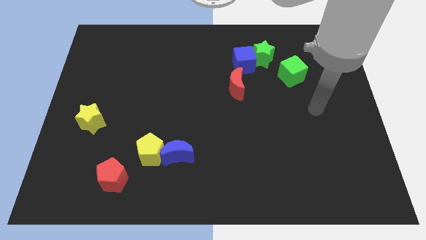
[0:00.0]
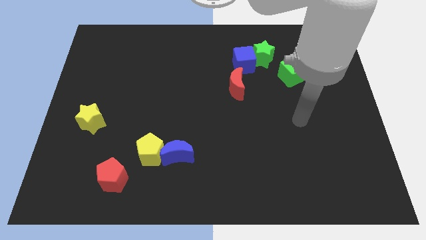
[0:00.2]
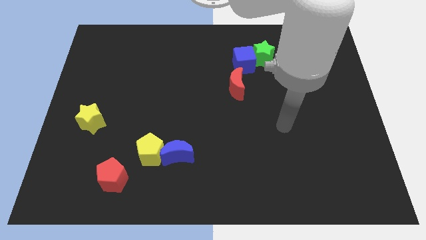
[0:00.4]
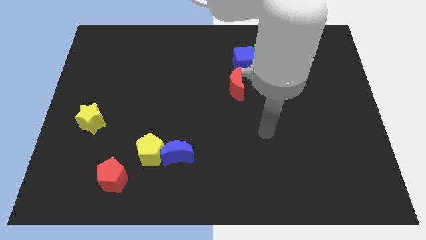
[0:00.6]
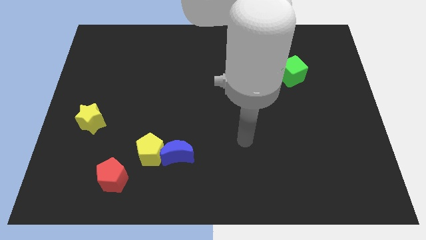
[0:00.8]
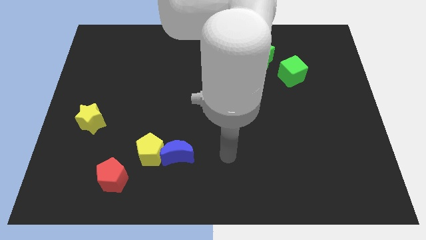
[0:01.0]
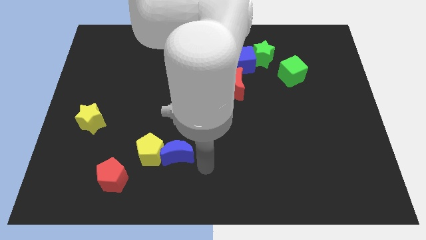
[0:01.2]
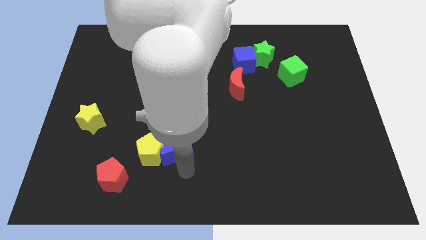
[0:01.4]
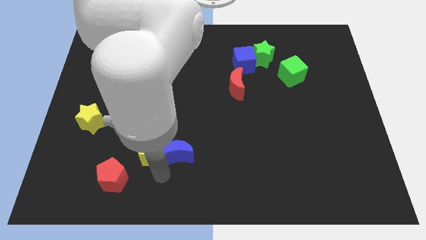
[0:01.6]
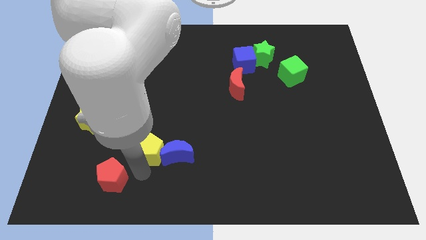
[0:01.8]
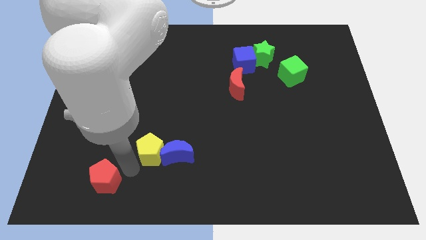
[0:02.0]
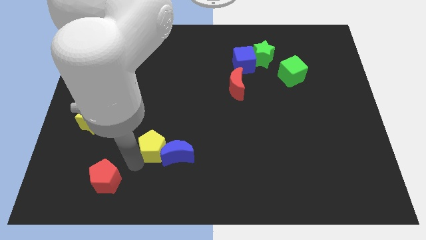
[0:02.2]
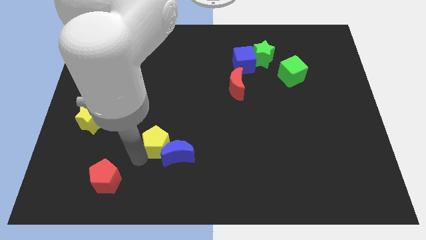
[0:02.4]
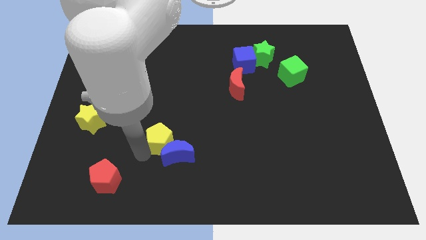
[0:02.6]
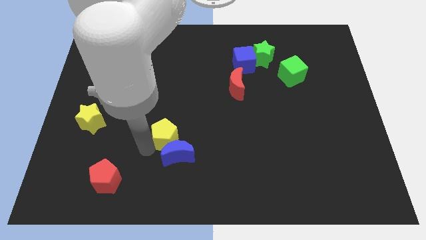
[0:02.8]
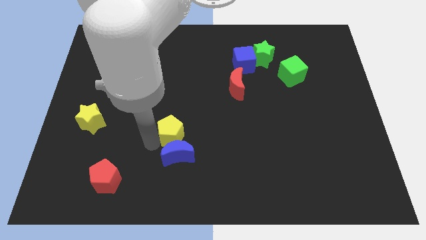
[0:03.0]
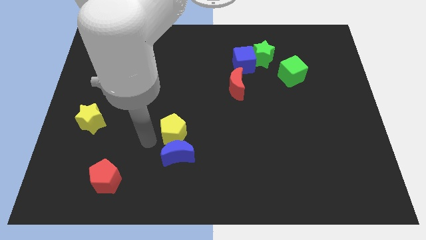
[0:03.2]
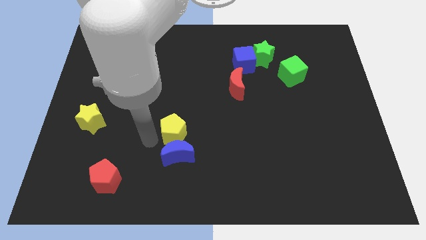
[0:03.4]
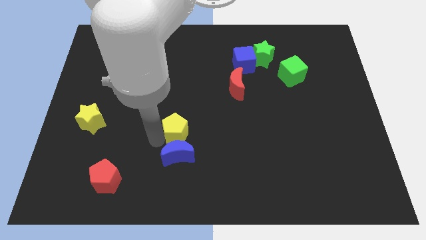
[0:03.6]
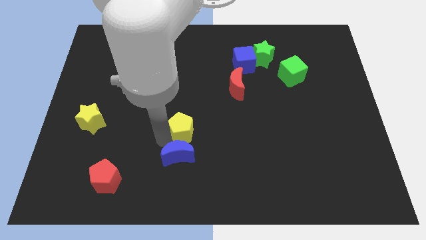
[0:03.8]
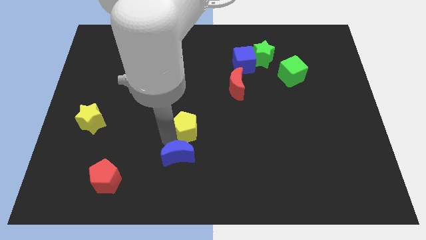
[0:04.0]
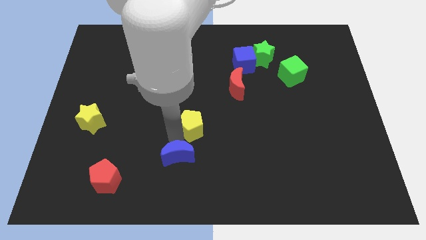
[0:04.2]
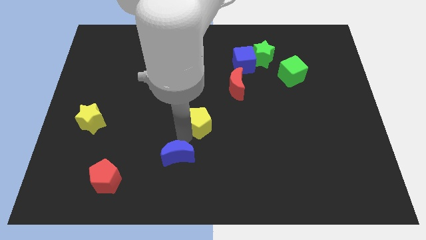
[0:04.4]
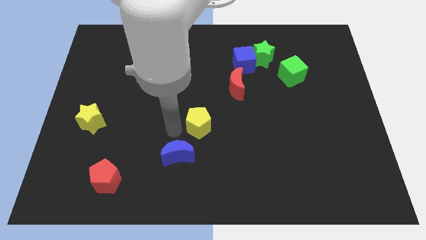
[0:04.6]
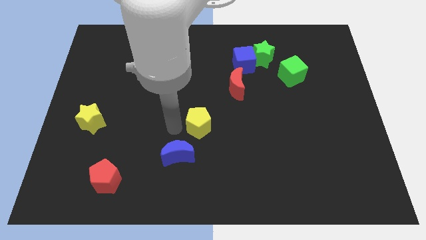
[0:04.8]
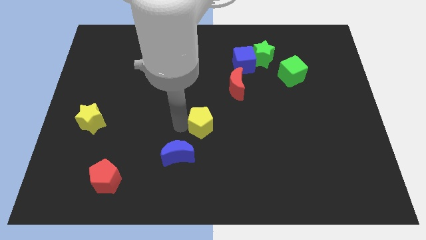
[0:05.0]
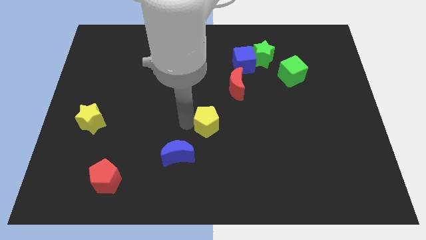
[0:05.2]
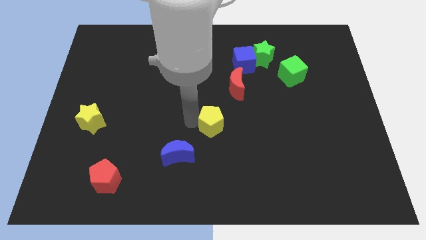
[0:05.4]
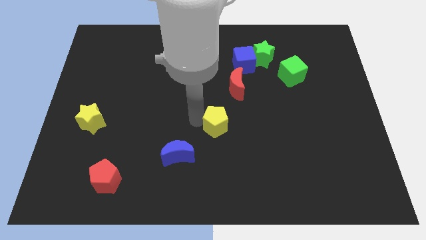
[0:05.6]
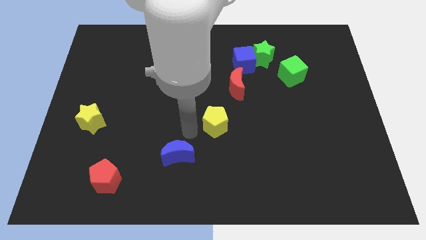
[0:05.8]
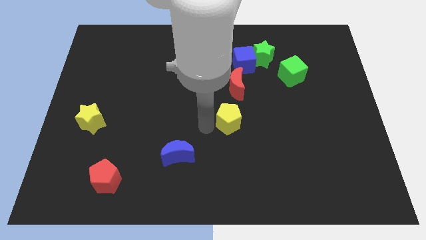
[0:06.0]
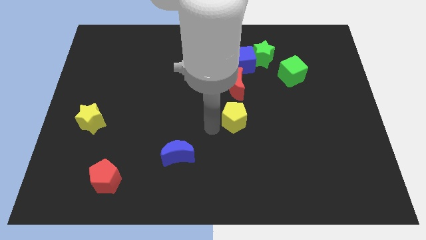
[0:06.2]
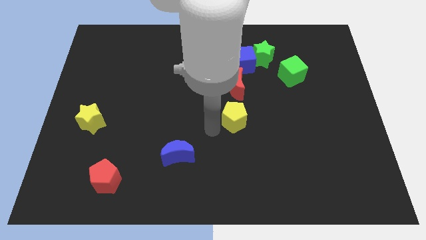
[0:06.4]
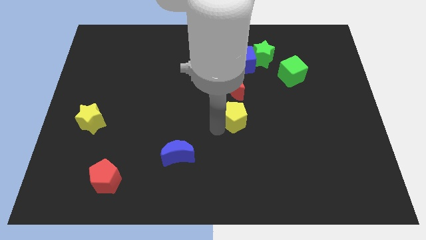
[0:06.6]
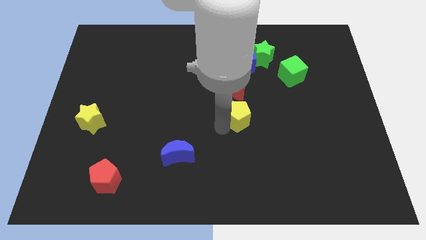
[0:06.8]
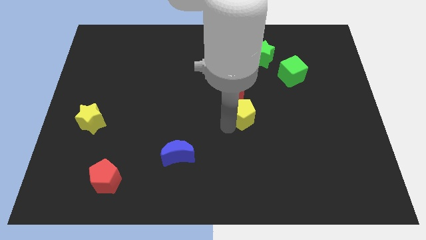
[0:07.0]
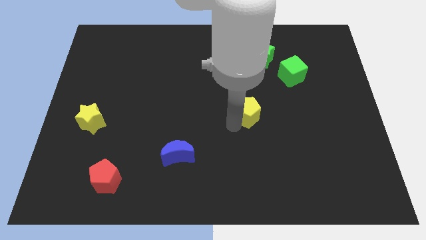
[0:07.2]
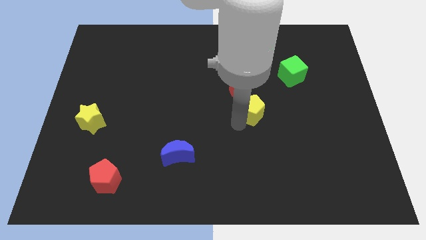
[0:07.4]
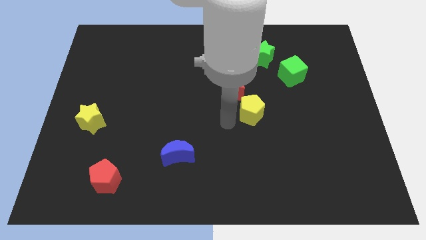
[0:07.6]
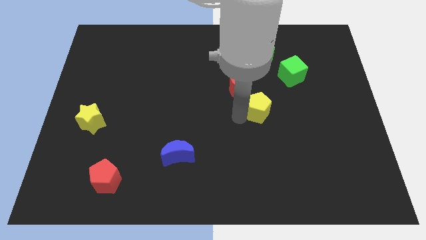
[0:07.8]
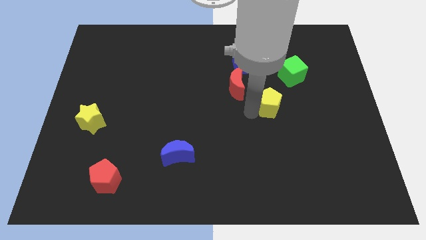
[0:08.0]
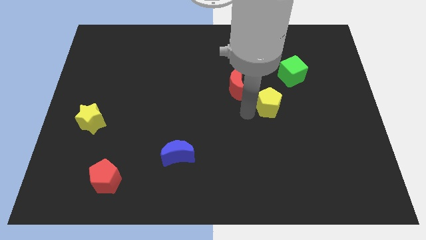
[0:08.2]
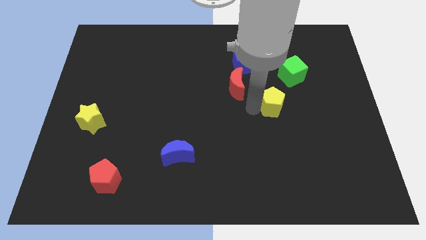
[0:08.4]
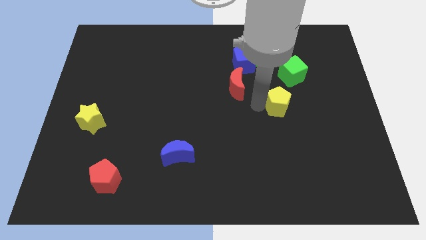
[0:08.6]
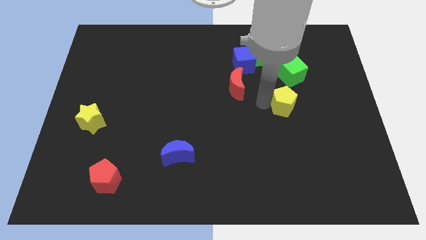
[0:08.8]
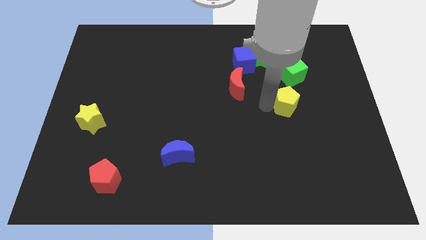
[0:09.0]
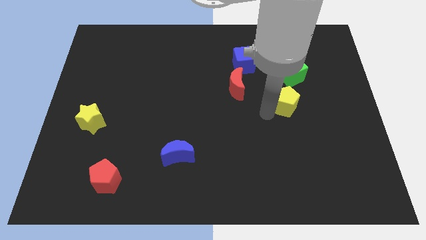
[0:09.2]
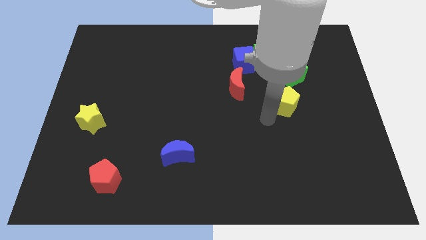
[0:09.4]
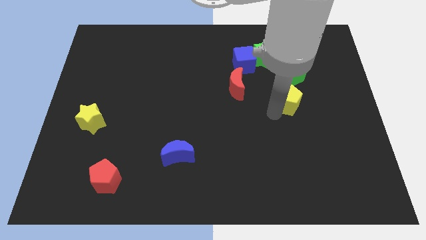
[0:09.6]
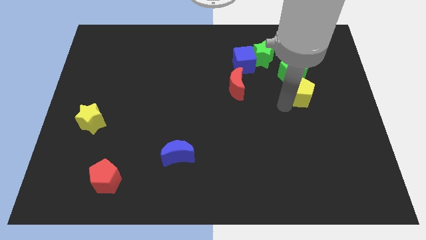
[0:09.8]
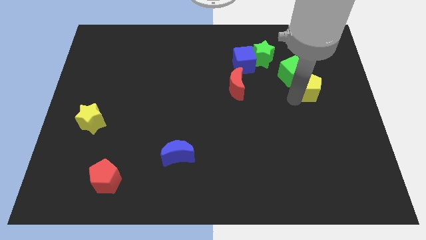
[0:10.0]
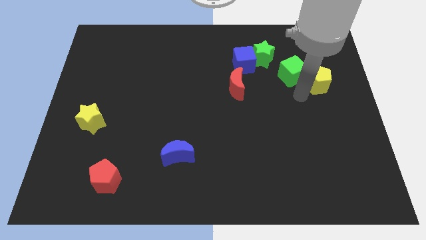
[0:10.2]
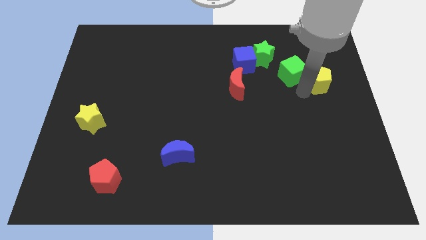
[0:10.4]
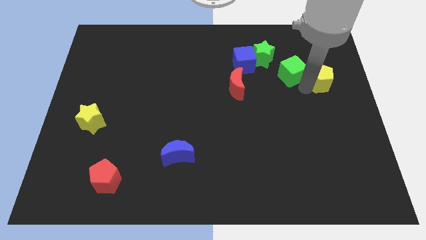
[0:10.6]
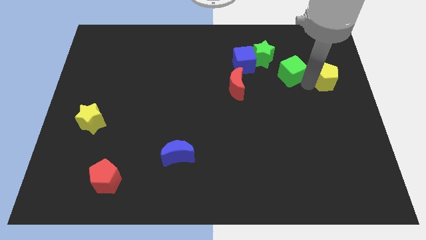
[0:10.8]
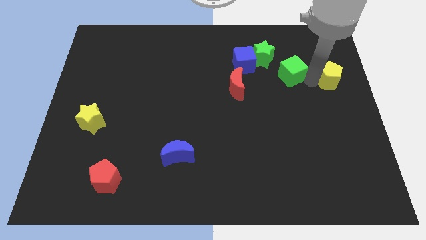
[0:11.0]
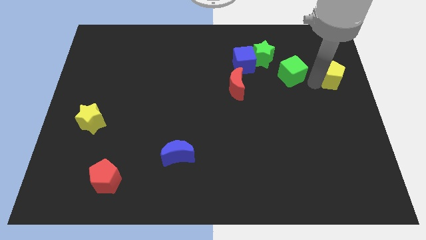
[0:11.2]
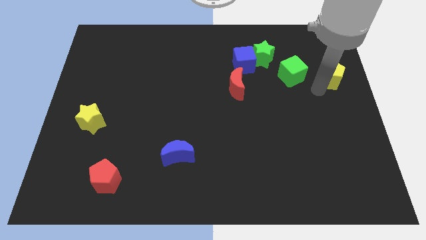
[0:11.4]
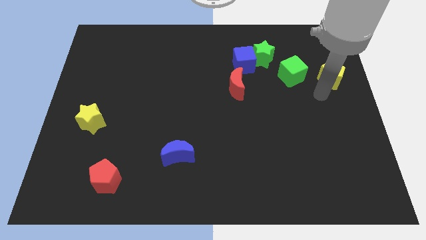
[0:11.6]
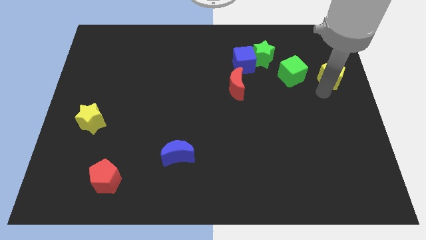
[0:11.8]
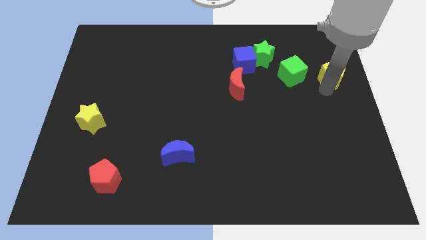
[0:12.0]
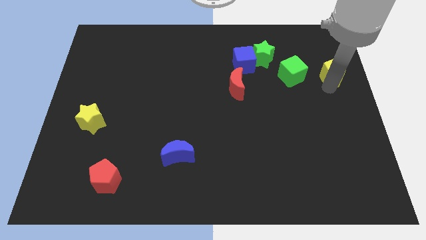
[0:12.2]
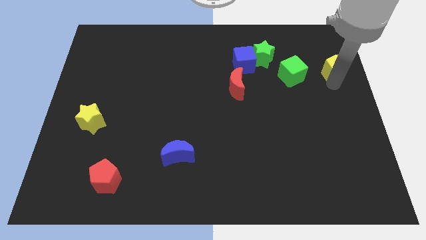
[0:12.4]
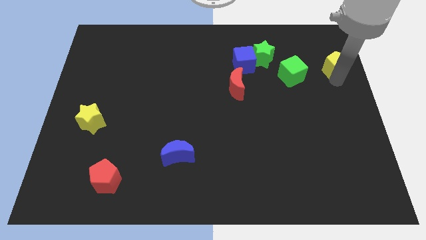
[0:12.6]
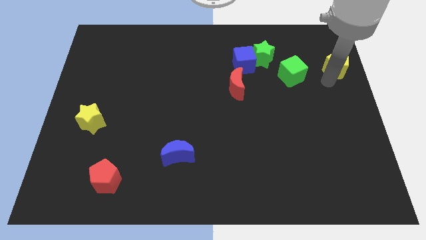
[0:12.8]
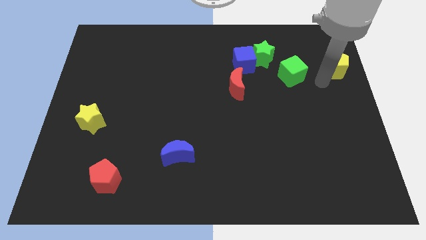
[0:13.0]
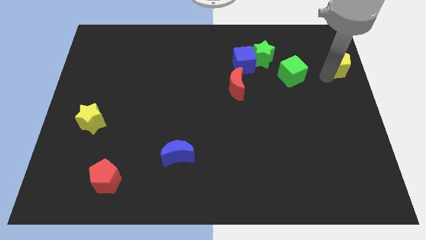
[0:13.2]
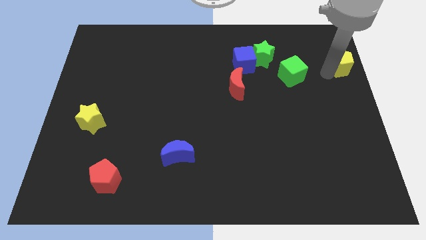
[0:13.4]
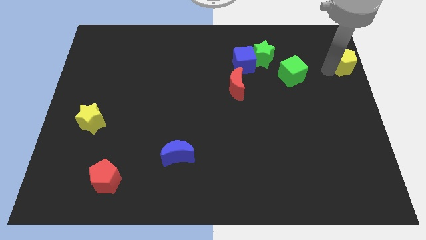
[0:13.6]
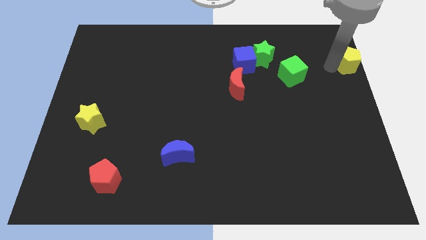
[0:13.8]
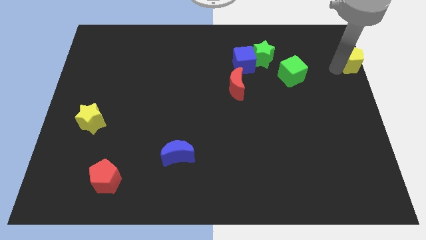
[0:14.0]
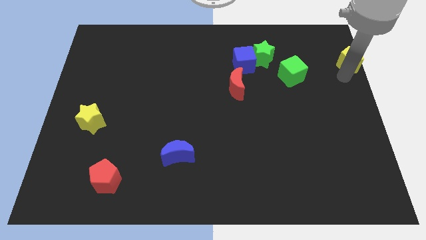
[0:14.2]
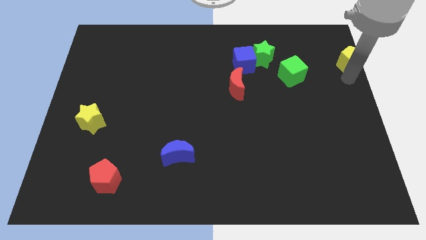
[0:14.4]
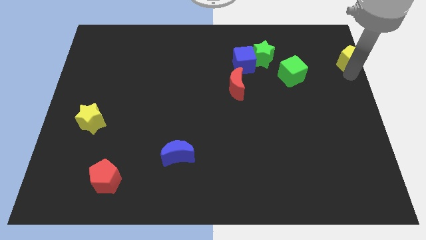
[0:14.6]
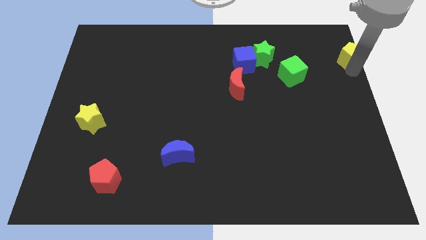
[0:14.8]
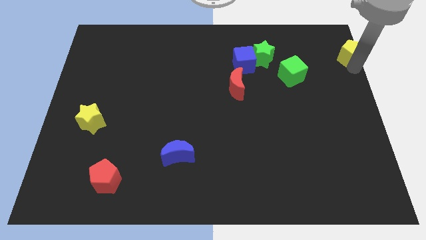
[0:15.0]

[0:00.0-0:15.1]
push the yellow pentagon to the top right corner
